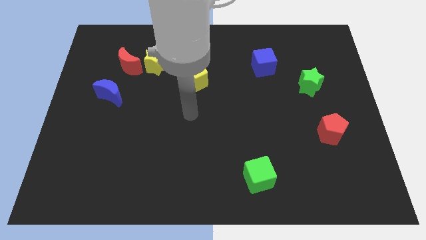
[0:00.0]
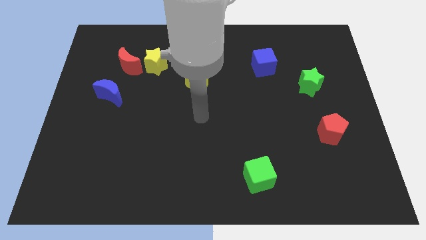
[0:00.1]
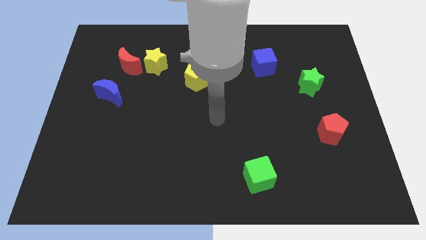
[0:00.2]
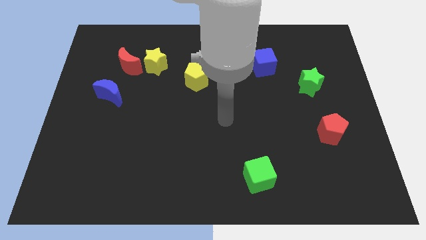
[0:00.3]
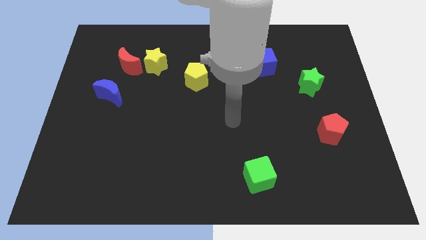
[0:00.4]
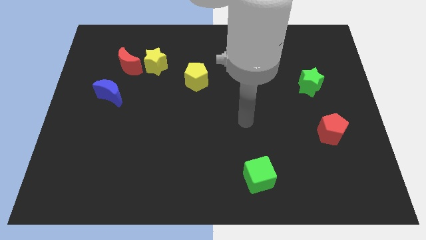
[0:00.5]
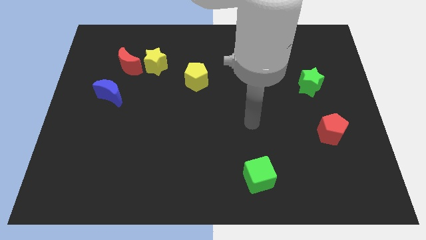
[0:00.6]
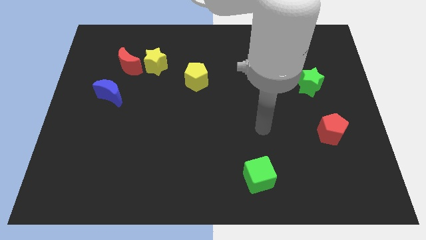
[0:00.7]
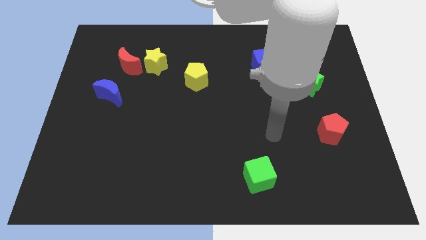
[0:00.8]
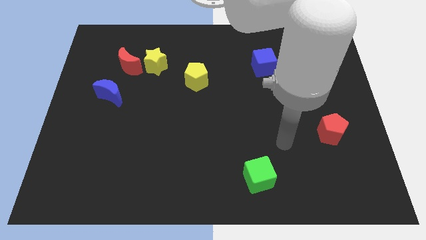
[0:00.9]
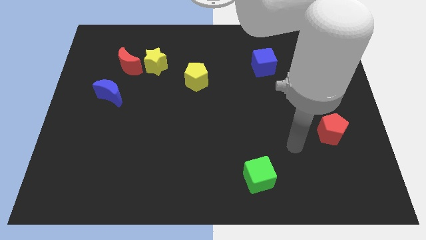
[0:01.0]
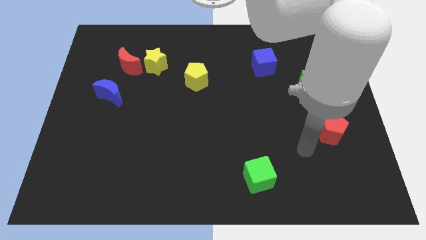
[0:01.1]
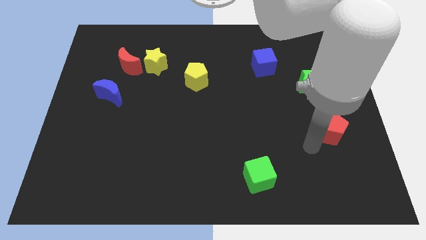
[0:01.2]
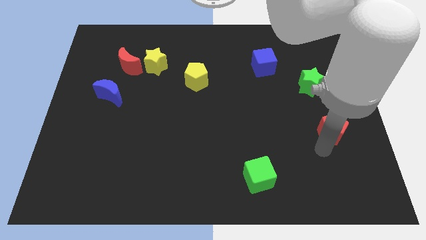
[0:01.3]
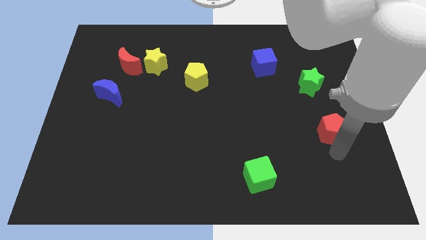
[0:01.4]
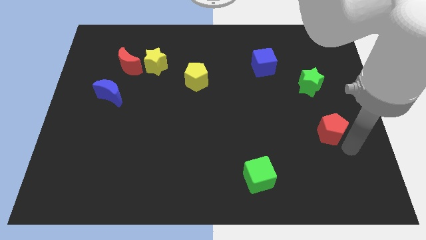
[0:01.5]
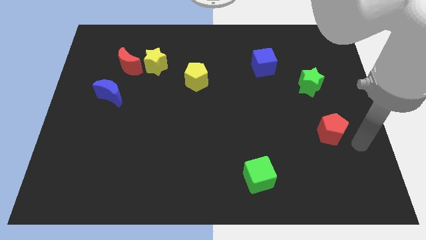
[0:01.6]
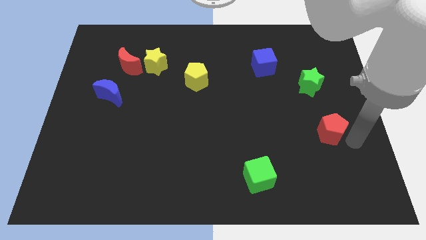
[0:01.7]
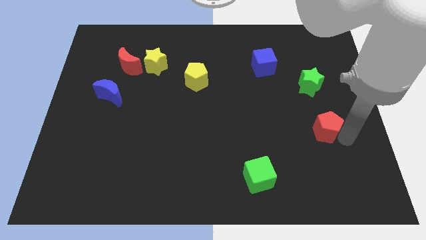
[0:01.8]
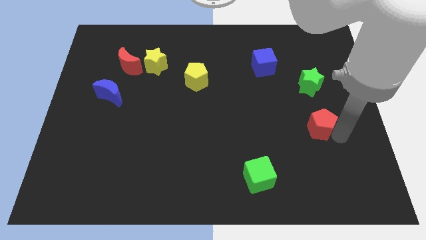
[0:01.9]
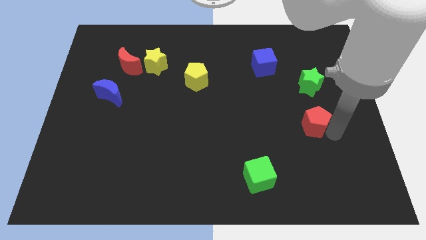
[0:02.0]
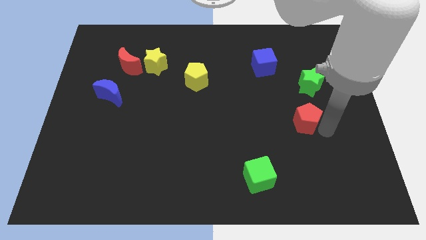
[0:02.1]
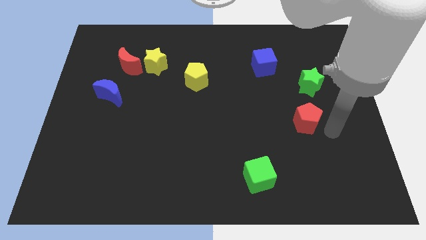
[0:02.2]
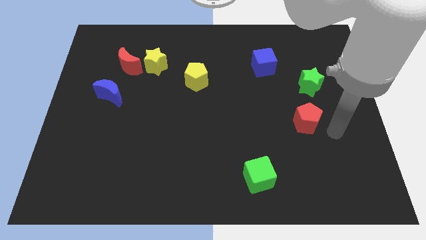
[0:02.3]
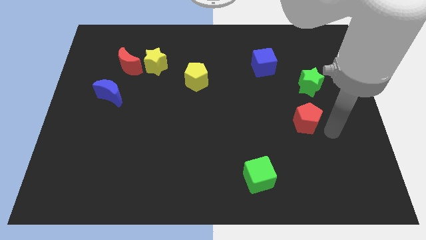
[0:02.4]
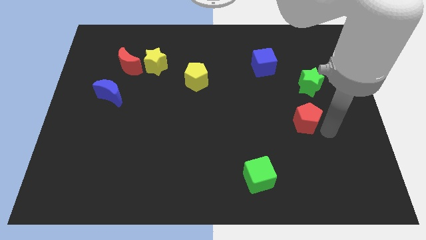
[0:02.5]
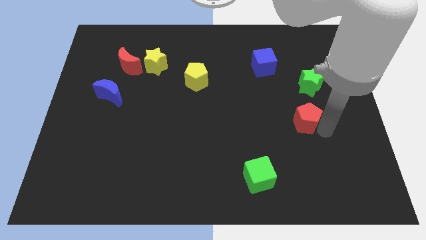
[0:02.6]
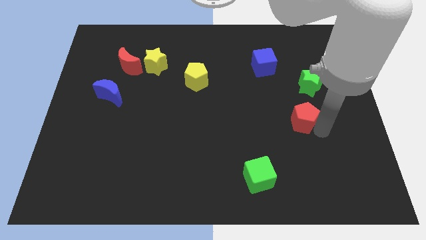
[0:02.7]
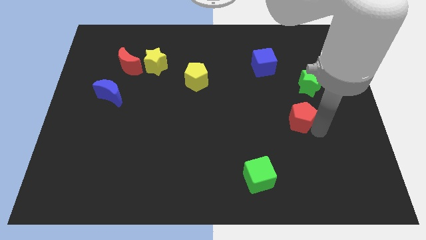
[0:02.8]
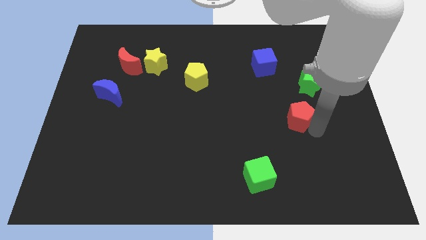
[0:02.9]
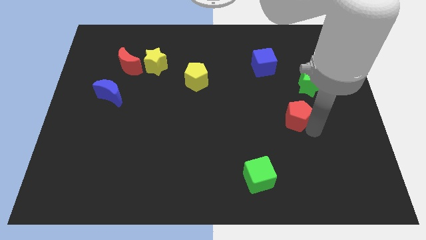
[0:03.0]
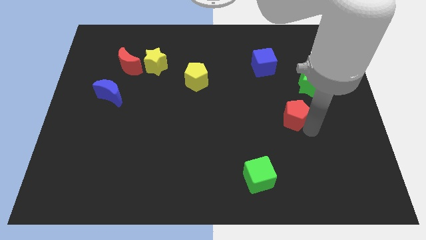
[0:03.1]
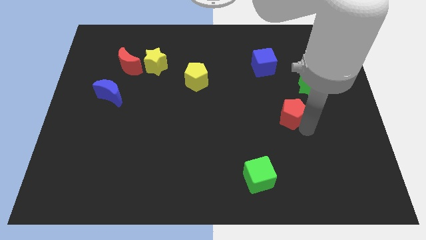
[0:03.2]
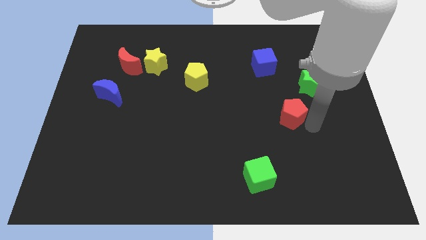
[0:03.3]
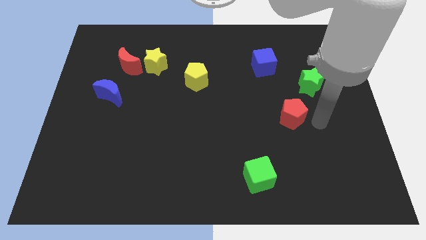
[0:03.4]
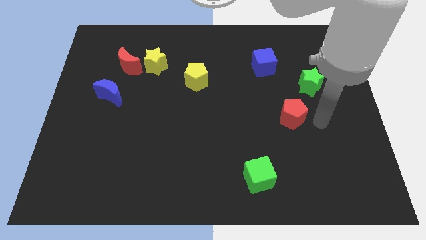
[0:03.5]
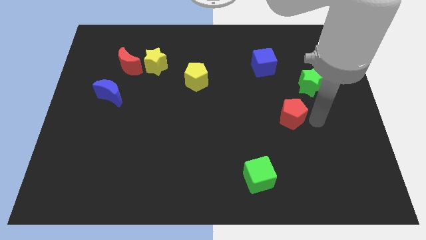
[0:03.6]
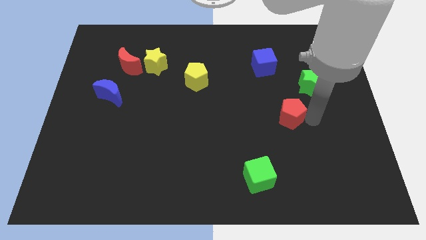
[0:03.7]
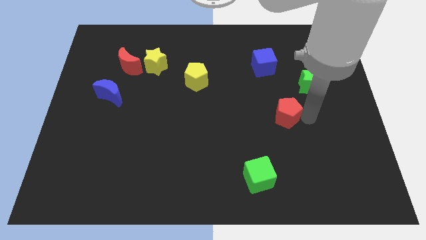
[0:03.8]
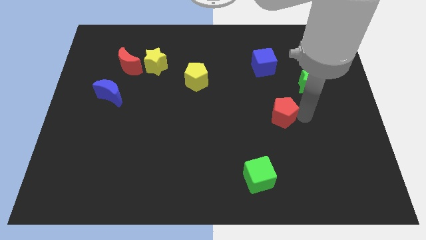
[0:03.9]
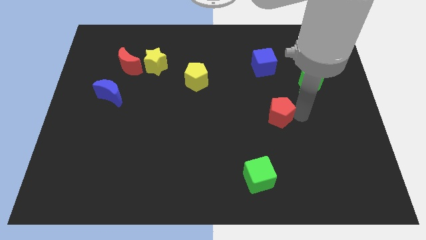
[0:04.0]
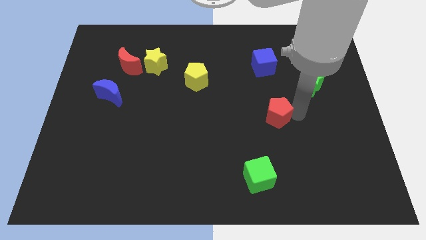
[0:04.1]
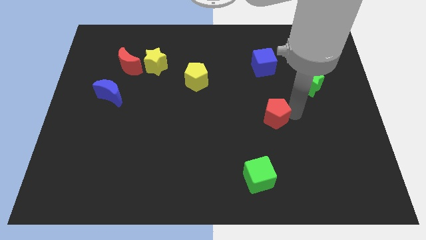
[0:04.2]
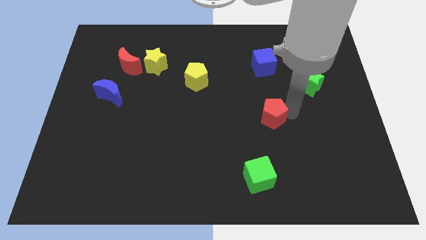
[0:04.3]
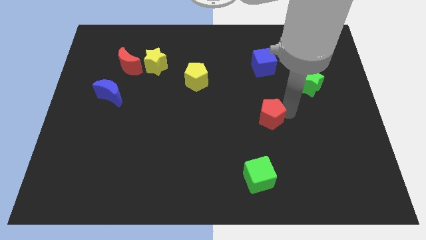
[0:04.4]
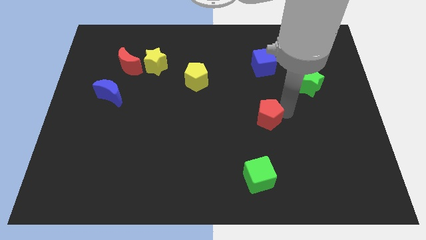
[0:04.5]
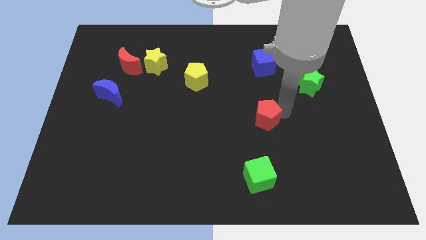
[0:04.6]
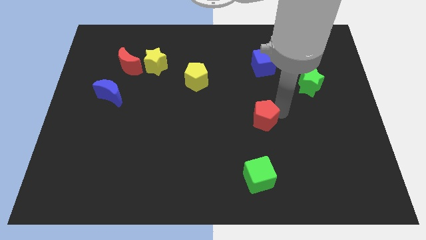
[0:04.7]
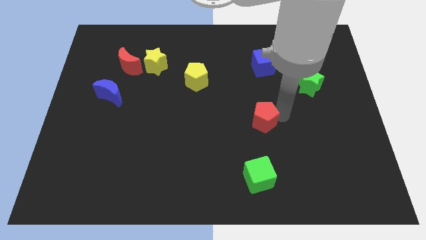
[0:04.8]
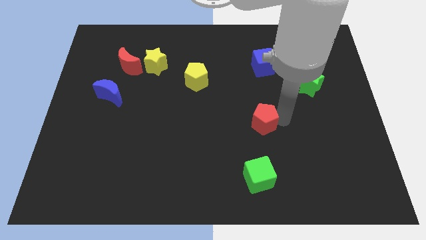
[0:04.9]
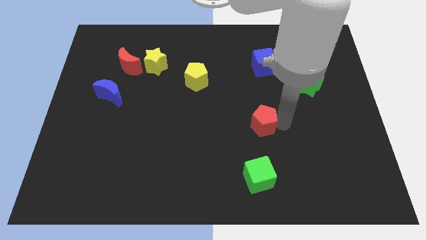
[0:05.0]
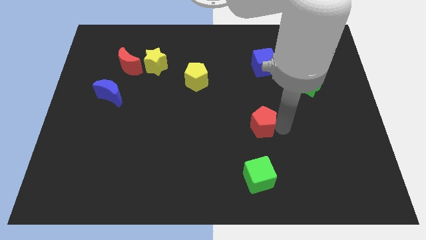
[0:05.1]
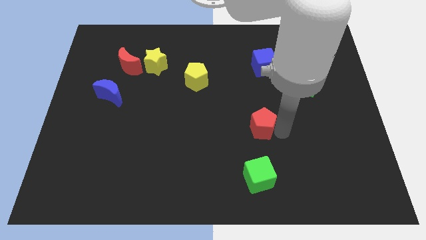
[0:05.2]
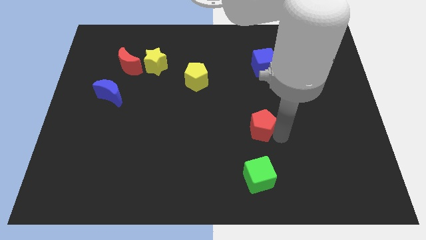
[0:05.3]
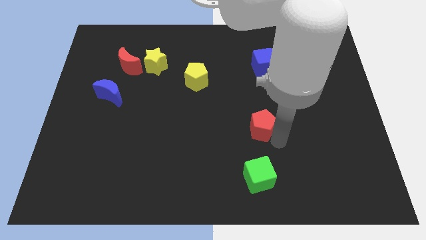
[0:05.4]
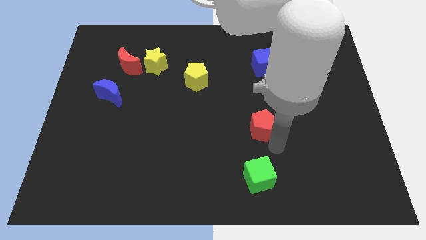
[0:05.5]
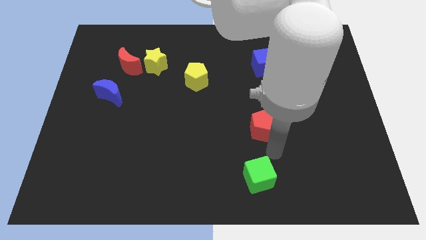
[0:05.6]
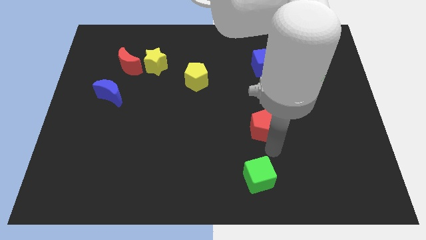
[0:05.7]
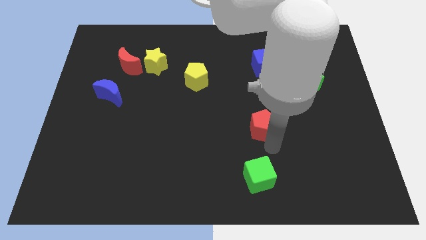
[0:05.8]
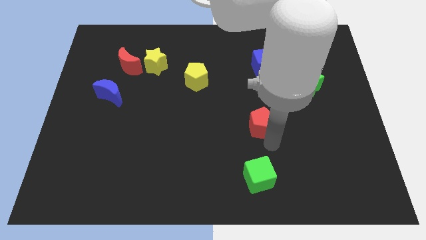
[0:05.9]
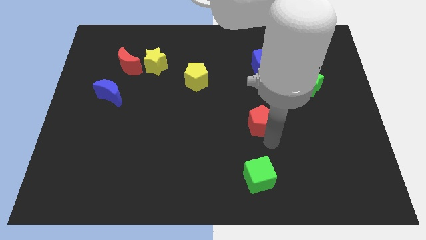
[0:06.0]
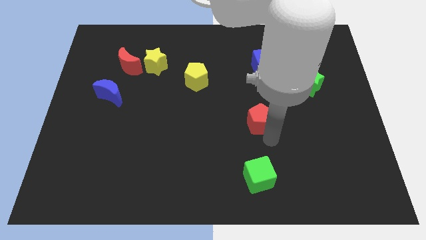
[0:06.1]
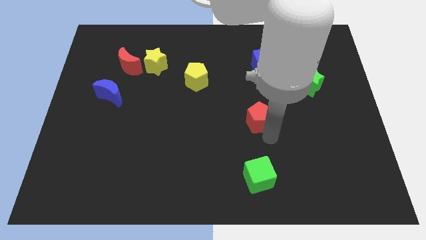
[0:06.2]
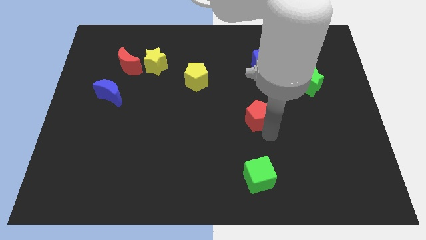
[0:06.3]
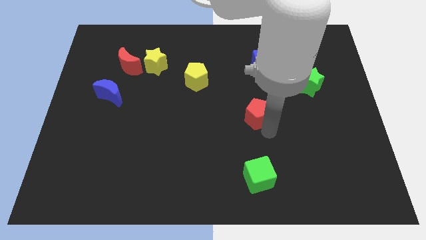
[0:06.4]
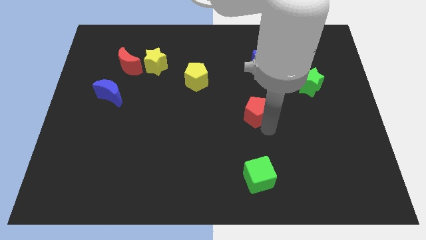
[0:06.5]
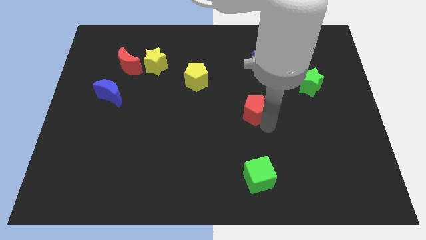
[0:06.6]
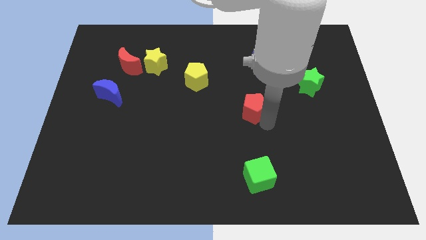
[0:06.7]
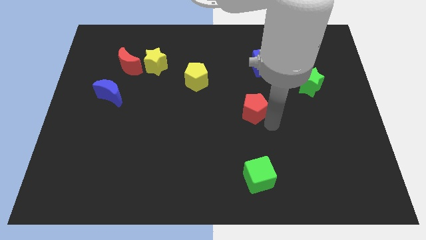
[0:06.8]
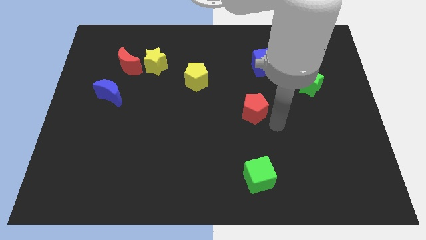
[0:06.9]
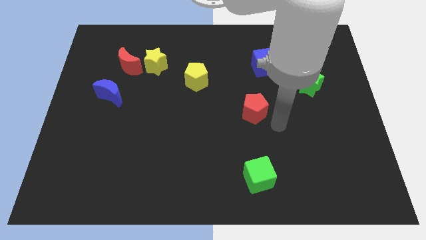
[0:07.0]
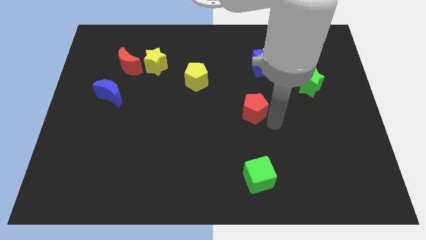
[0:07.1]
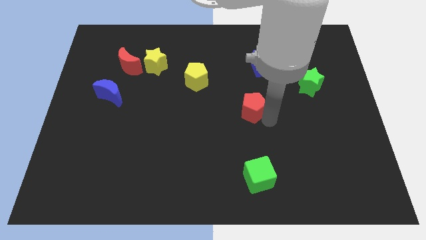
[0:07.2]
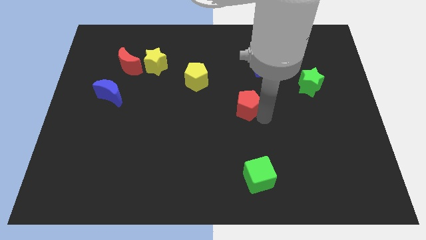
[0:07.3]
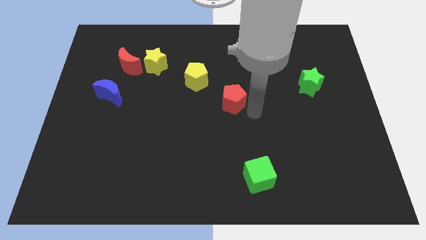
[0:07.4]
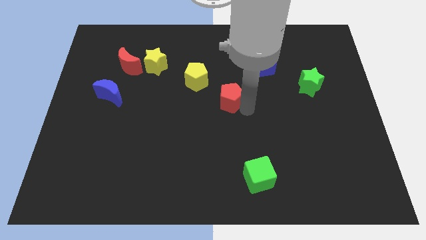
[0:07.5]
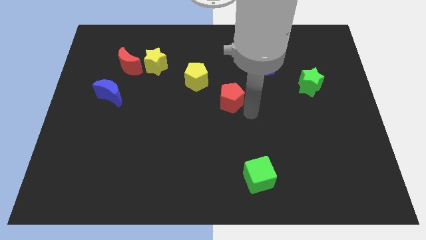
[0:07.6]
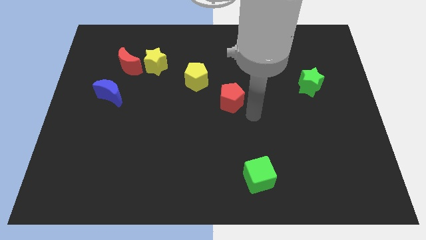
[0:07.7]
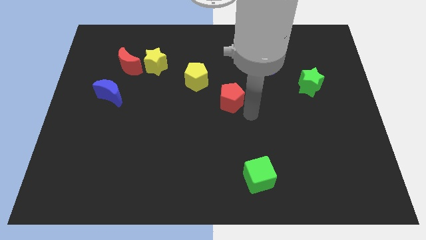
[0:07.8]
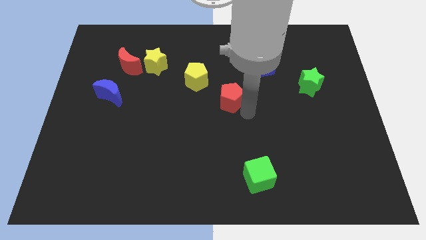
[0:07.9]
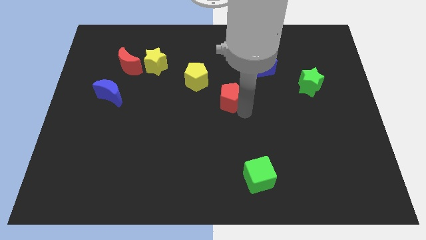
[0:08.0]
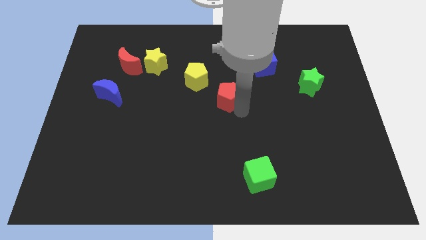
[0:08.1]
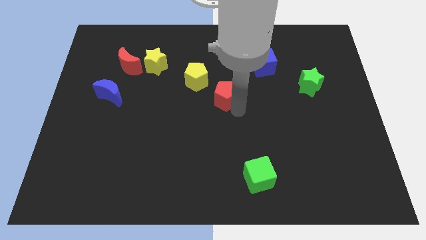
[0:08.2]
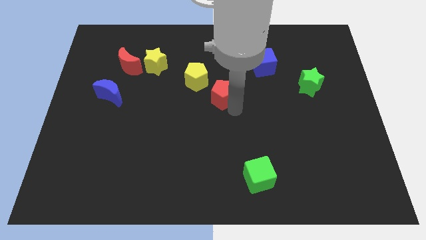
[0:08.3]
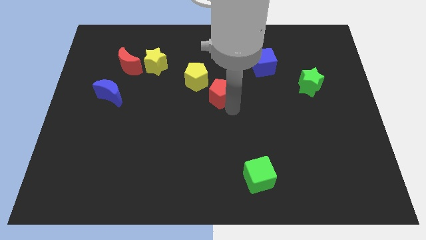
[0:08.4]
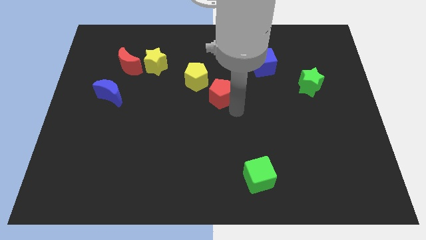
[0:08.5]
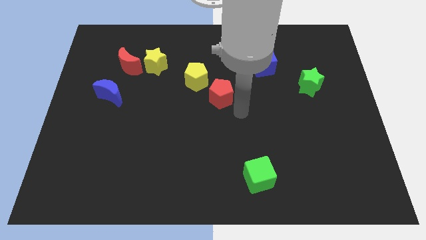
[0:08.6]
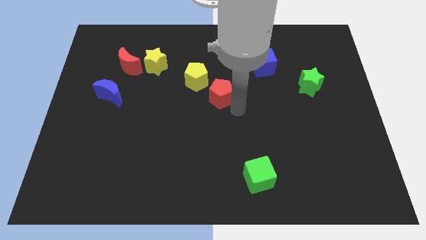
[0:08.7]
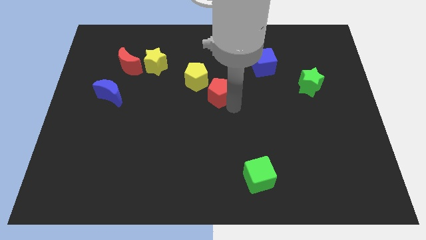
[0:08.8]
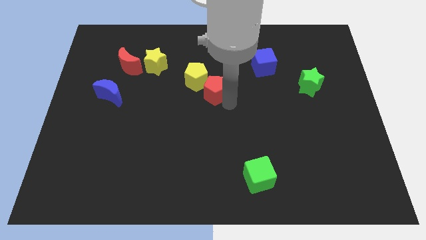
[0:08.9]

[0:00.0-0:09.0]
slide the red pentagon close to the yellow pentagon
